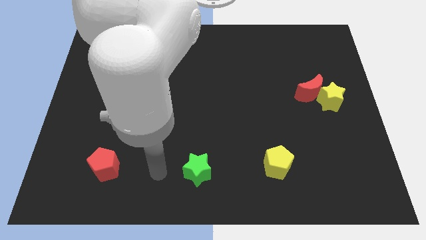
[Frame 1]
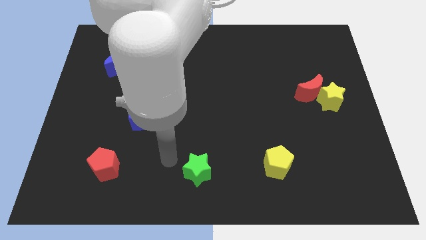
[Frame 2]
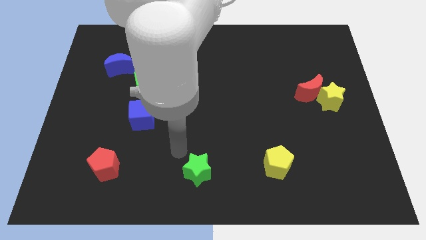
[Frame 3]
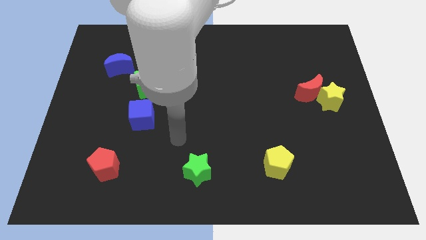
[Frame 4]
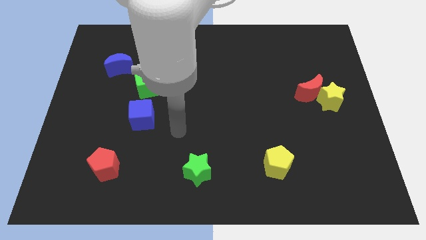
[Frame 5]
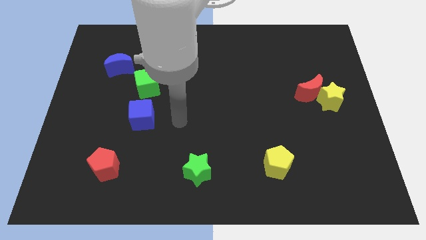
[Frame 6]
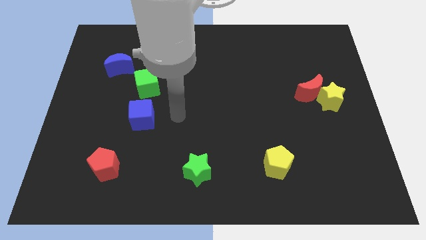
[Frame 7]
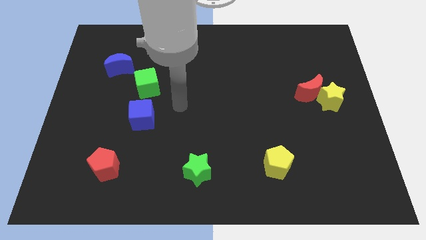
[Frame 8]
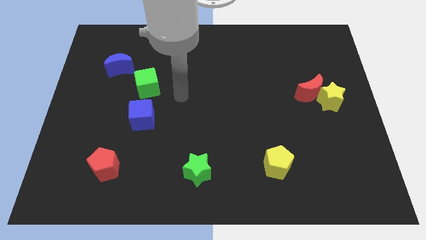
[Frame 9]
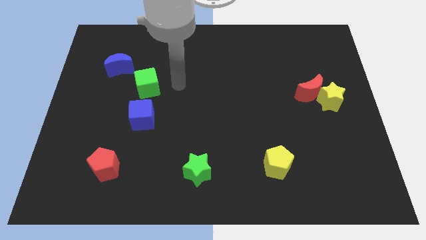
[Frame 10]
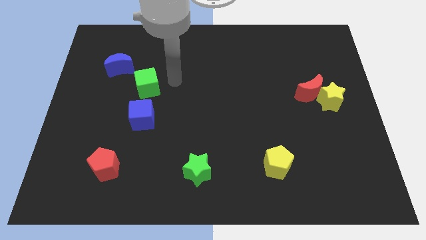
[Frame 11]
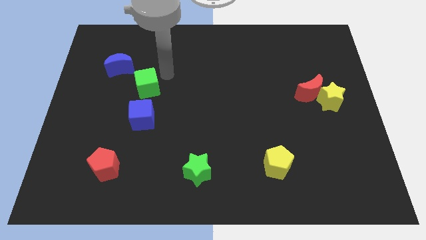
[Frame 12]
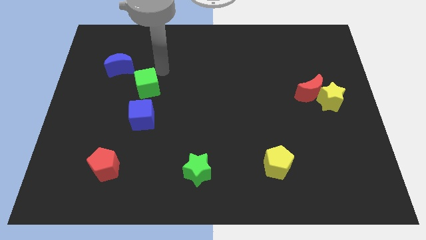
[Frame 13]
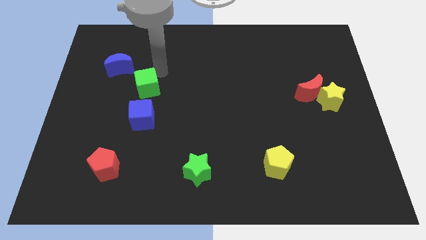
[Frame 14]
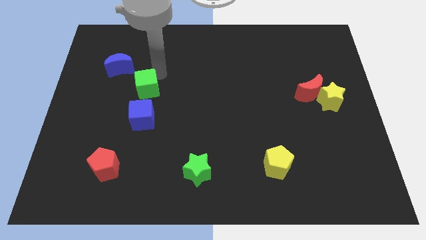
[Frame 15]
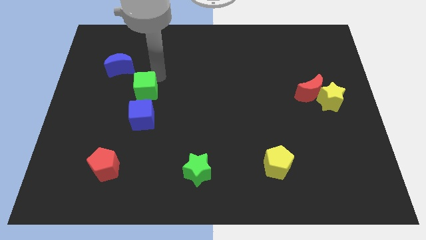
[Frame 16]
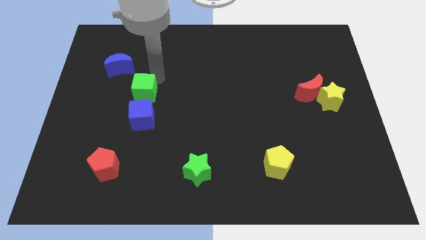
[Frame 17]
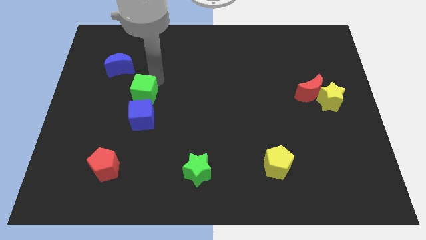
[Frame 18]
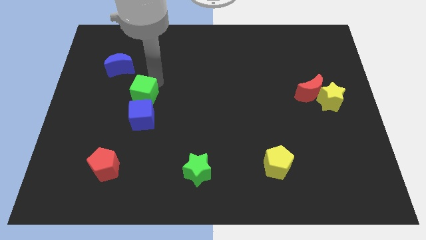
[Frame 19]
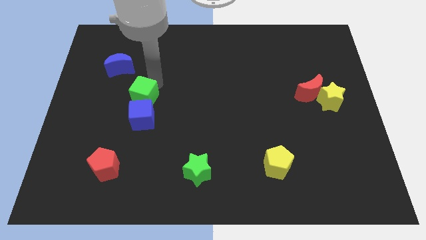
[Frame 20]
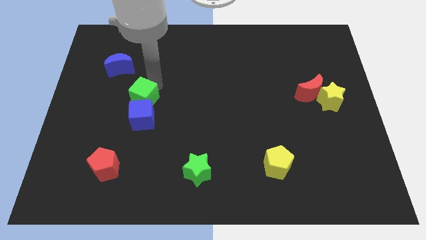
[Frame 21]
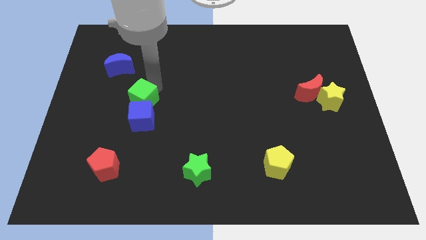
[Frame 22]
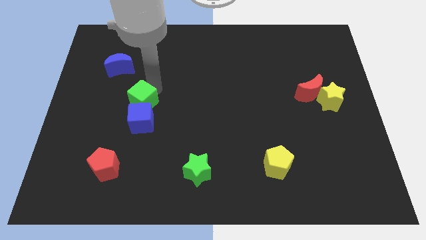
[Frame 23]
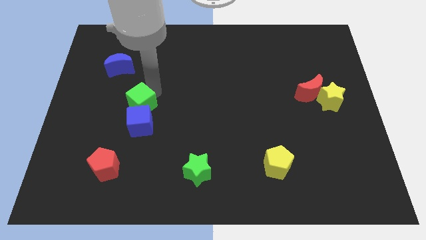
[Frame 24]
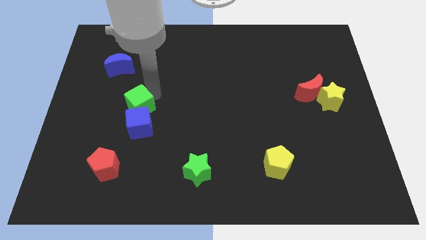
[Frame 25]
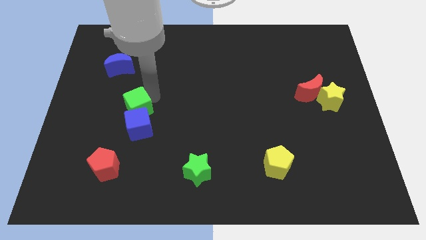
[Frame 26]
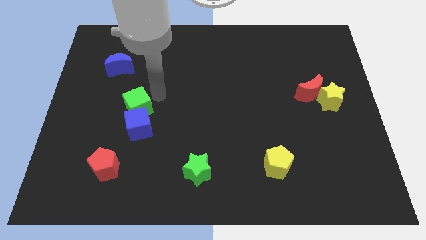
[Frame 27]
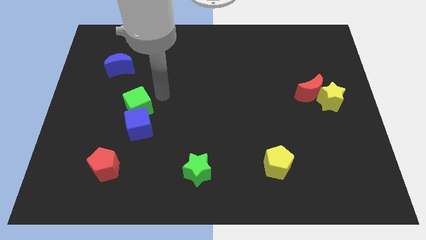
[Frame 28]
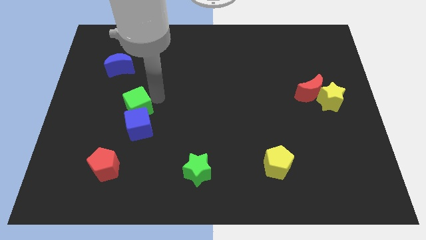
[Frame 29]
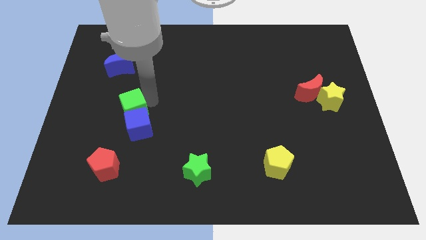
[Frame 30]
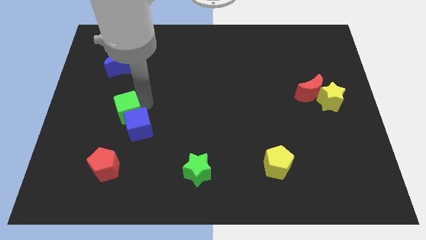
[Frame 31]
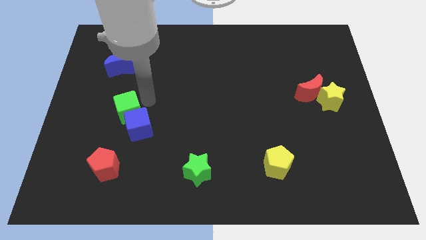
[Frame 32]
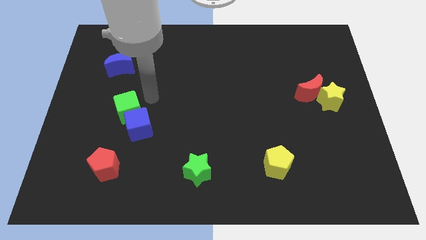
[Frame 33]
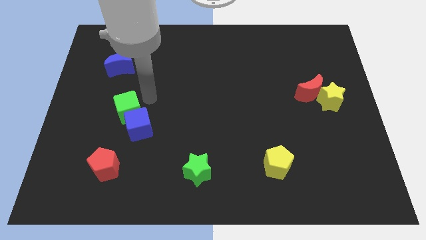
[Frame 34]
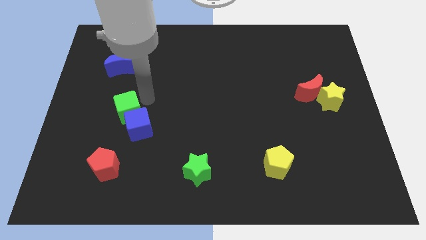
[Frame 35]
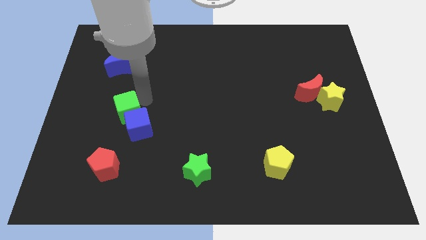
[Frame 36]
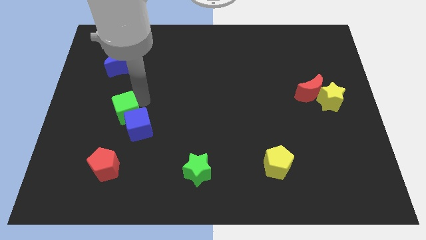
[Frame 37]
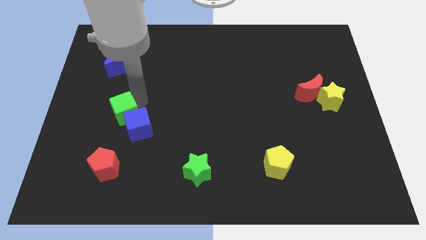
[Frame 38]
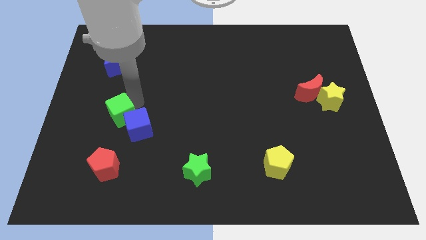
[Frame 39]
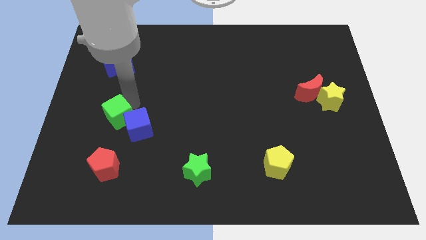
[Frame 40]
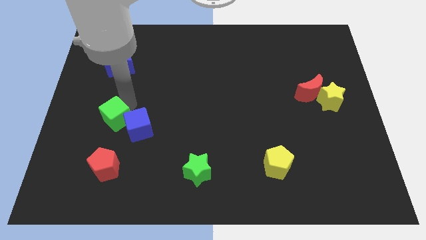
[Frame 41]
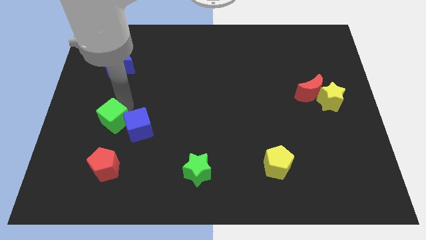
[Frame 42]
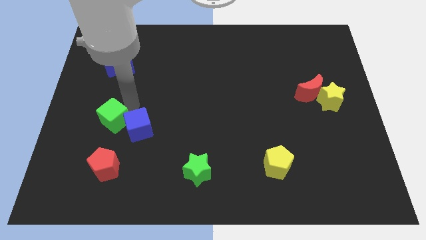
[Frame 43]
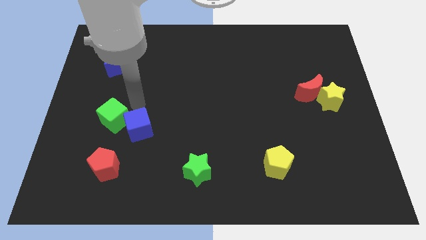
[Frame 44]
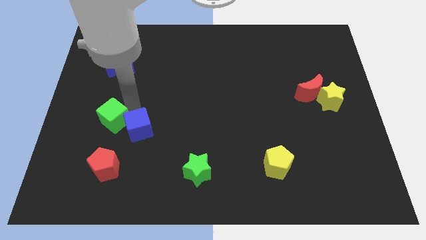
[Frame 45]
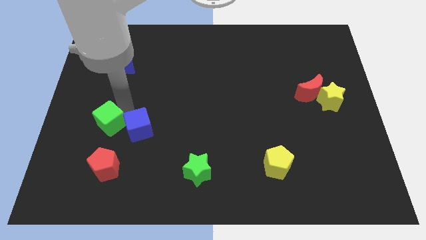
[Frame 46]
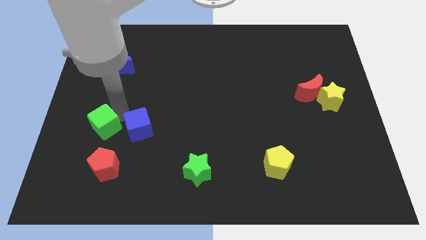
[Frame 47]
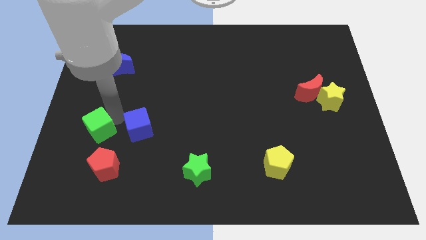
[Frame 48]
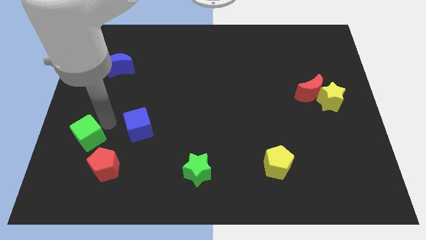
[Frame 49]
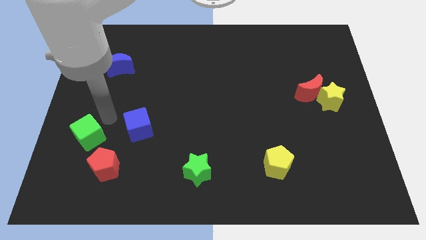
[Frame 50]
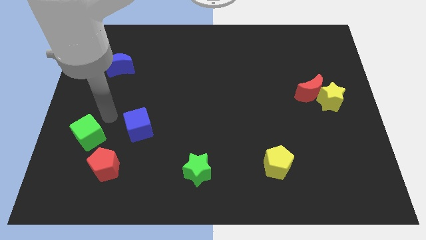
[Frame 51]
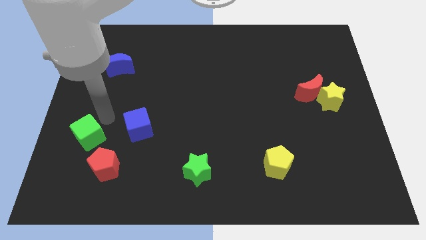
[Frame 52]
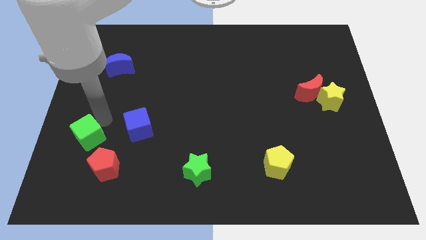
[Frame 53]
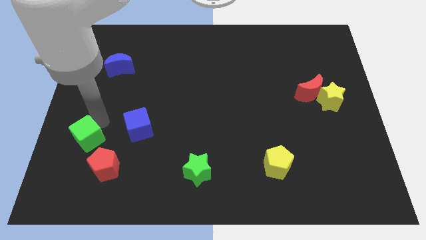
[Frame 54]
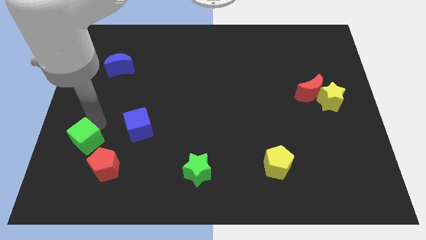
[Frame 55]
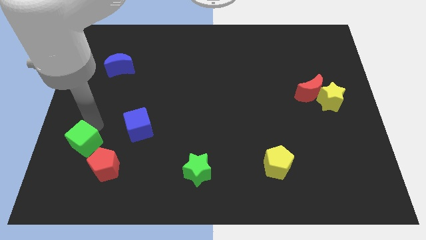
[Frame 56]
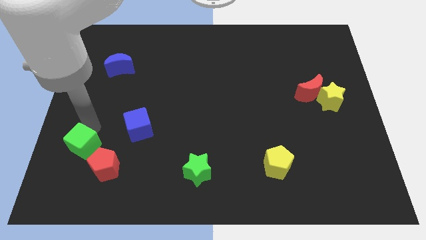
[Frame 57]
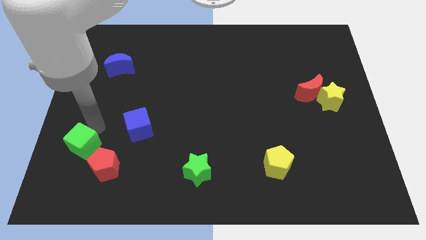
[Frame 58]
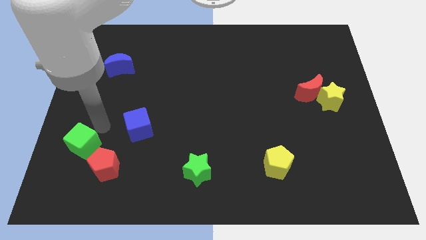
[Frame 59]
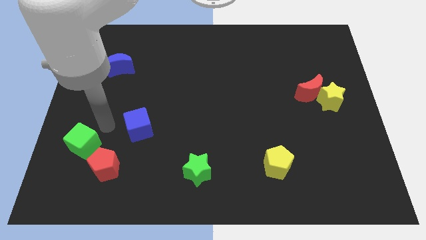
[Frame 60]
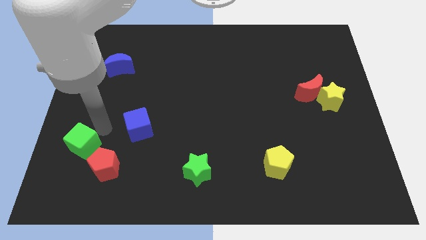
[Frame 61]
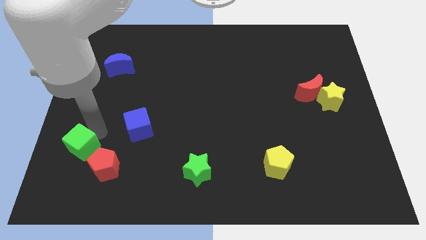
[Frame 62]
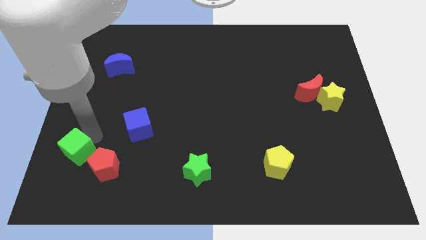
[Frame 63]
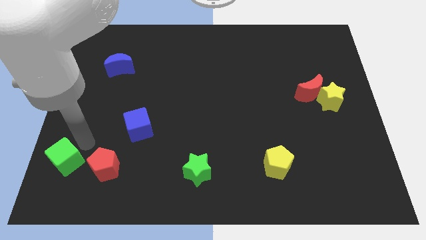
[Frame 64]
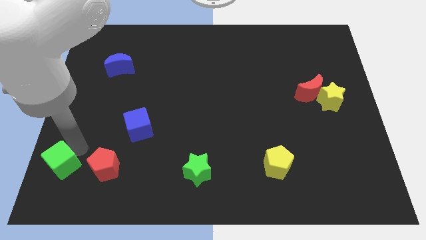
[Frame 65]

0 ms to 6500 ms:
slide the green cube to the bottom left of the board
